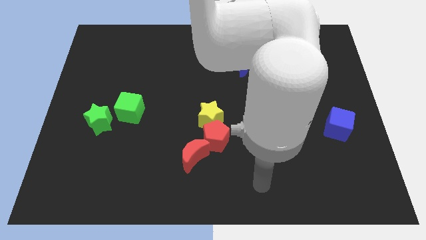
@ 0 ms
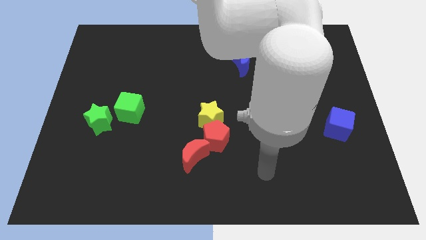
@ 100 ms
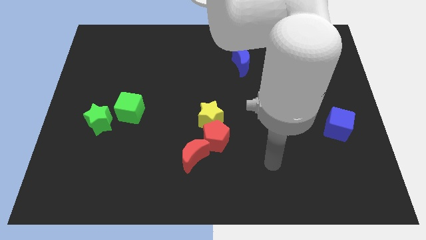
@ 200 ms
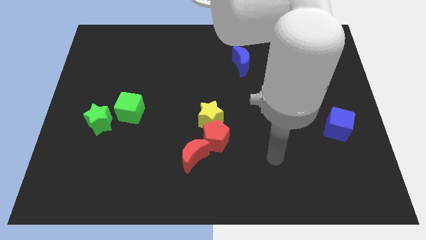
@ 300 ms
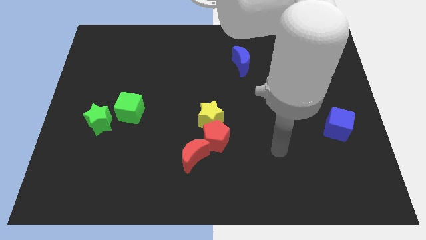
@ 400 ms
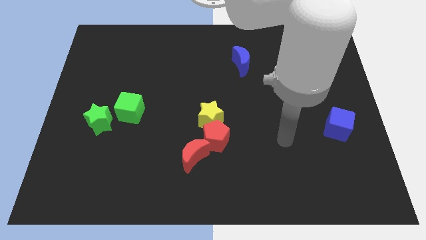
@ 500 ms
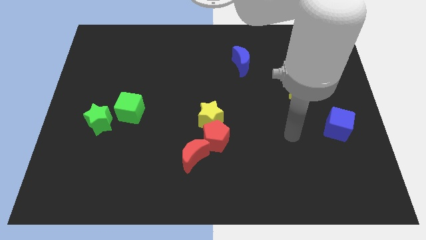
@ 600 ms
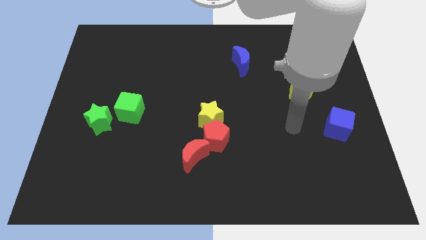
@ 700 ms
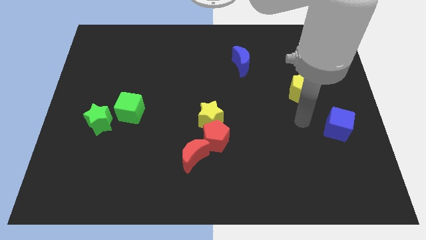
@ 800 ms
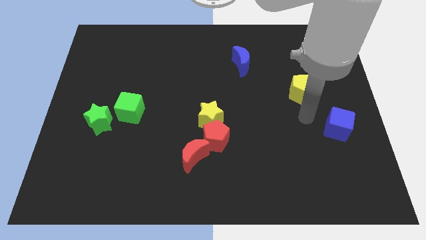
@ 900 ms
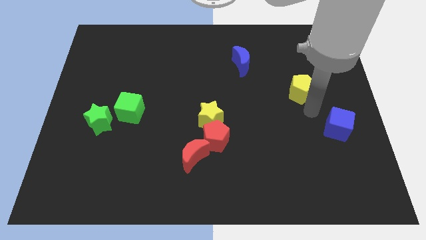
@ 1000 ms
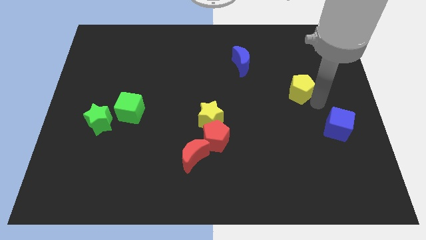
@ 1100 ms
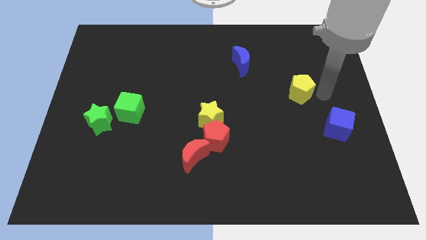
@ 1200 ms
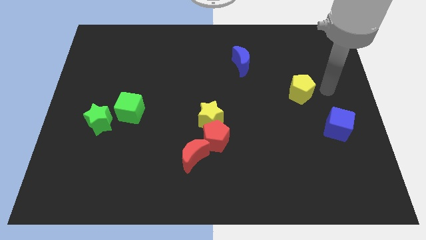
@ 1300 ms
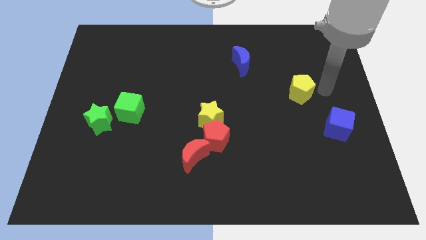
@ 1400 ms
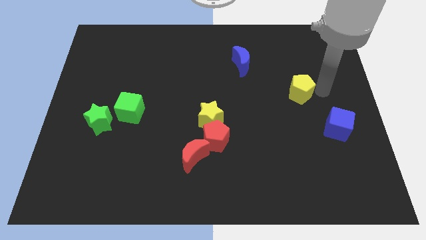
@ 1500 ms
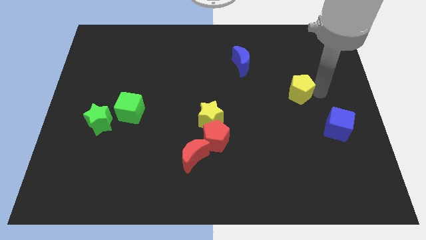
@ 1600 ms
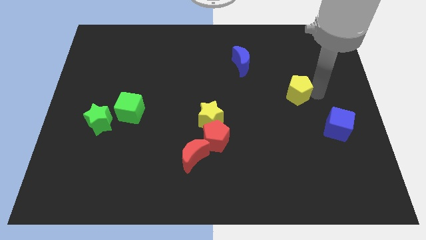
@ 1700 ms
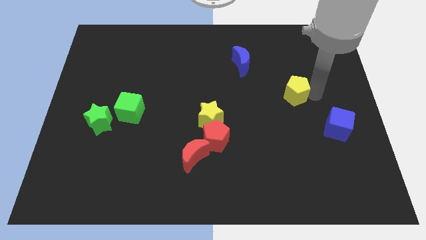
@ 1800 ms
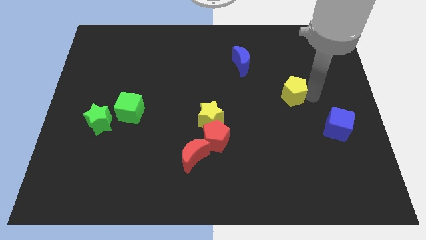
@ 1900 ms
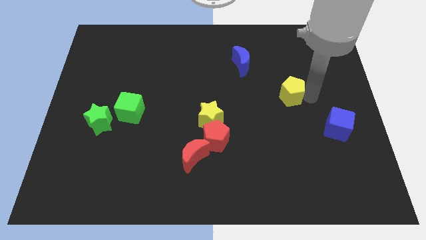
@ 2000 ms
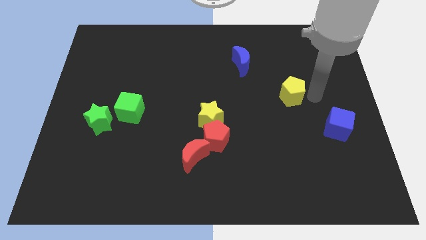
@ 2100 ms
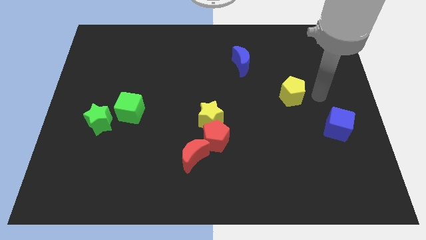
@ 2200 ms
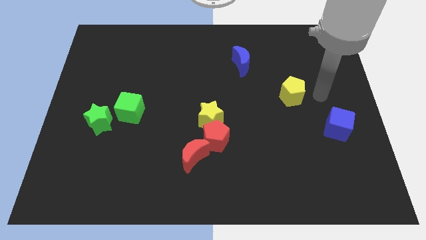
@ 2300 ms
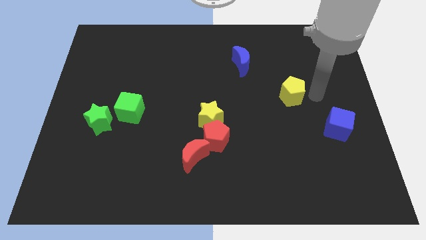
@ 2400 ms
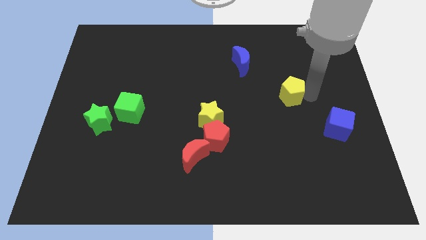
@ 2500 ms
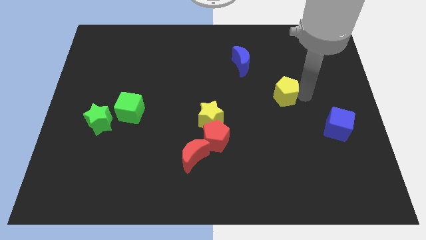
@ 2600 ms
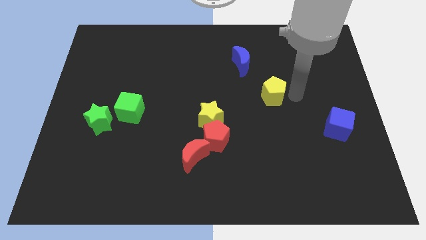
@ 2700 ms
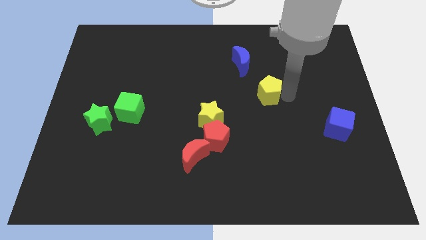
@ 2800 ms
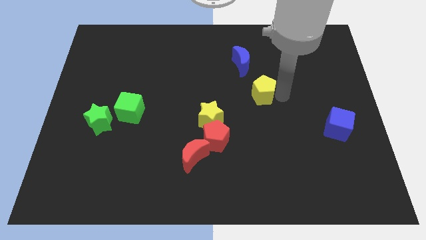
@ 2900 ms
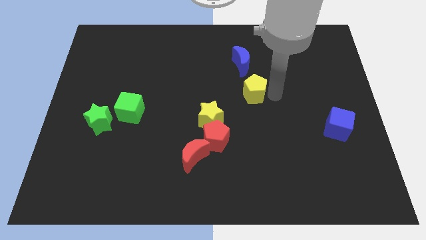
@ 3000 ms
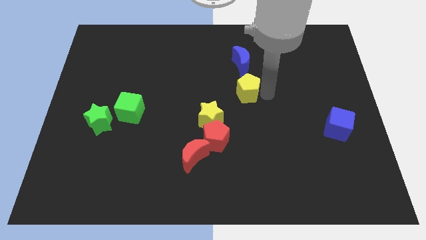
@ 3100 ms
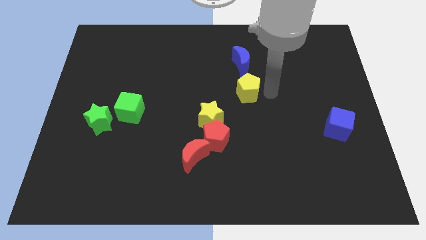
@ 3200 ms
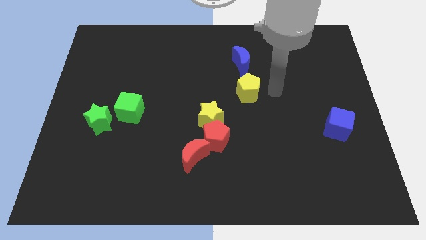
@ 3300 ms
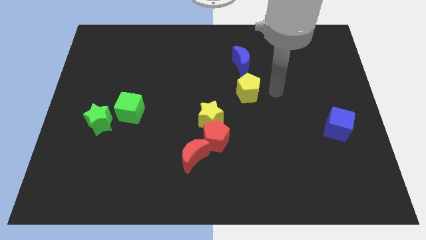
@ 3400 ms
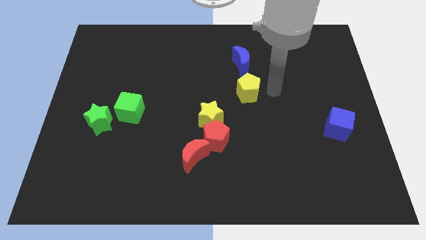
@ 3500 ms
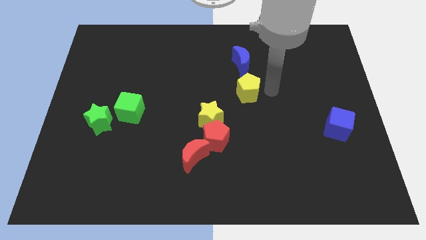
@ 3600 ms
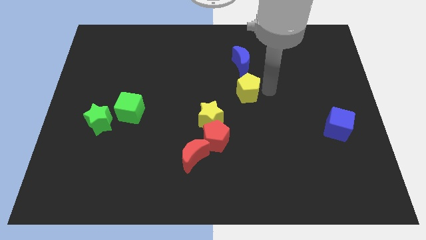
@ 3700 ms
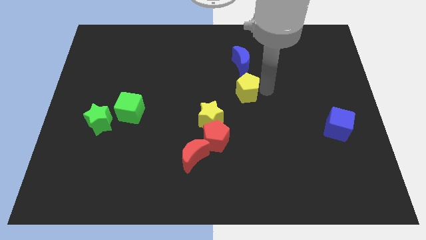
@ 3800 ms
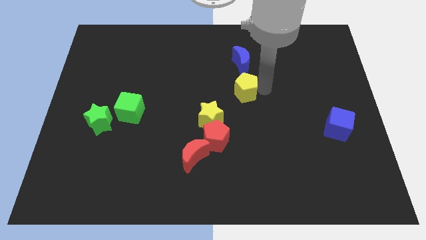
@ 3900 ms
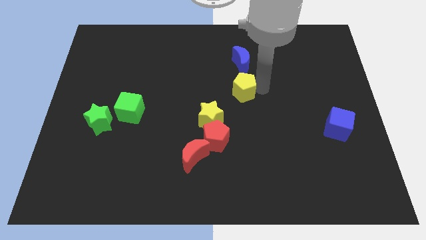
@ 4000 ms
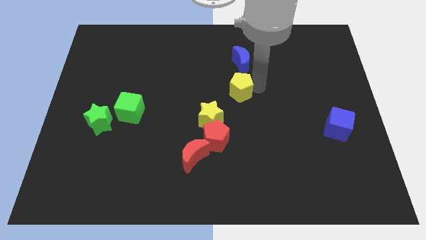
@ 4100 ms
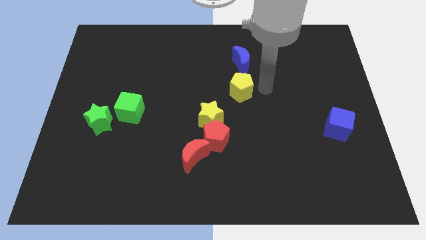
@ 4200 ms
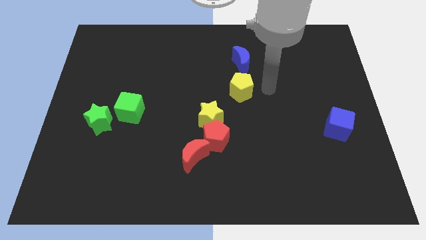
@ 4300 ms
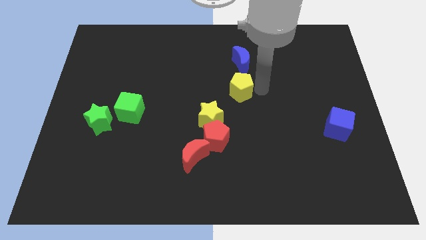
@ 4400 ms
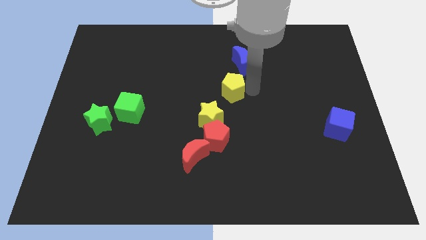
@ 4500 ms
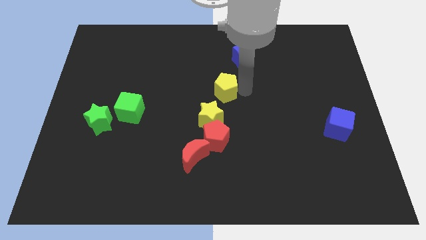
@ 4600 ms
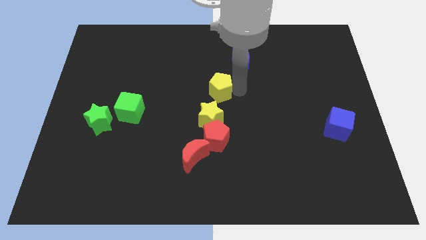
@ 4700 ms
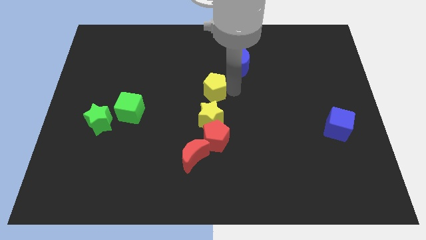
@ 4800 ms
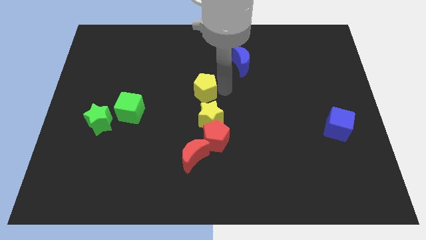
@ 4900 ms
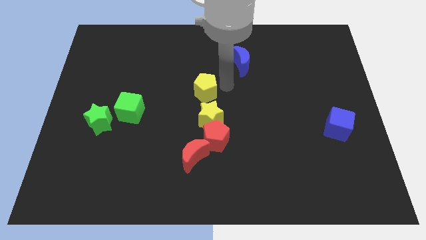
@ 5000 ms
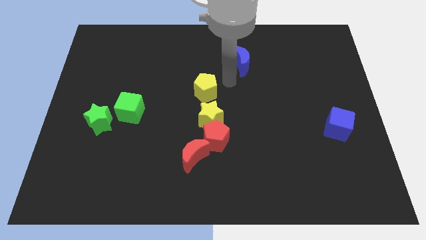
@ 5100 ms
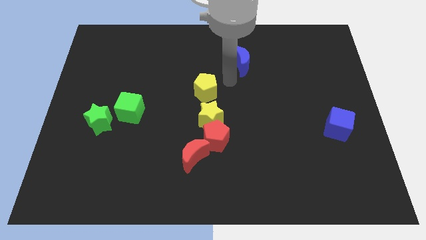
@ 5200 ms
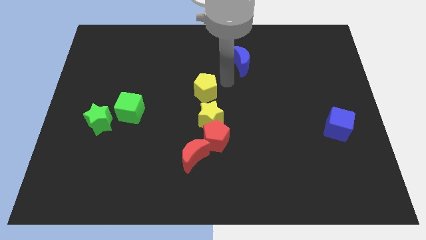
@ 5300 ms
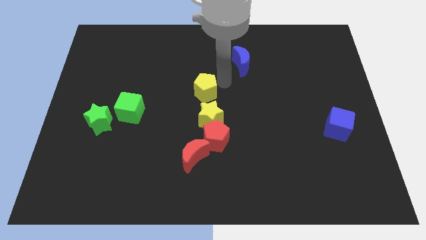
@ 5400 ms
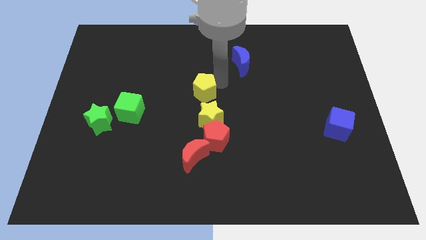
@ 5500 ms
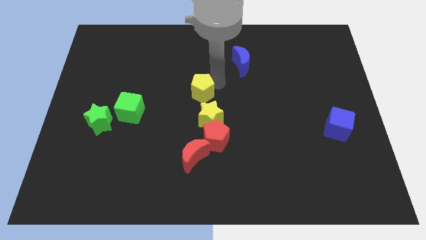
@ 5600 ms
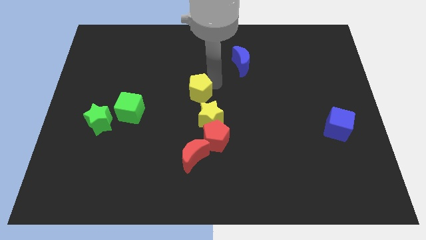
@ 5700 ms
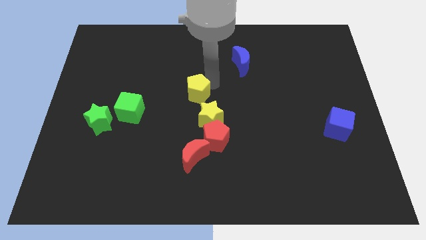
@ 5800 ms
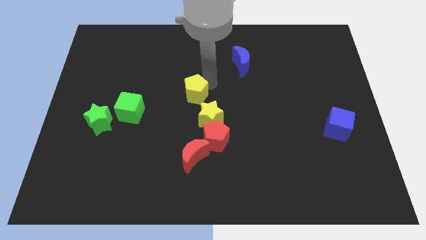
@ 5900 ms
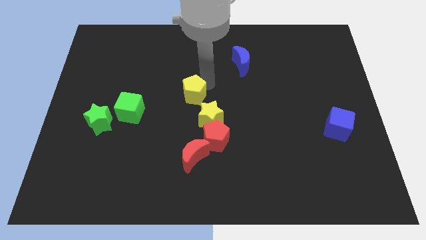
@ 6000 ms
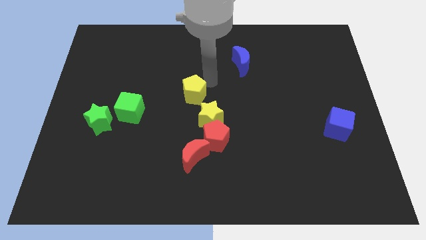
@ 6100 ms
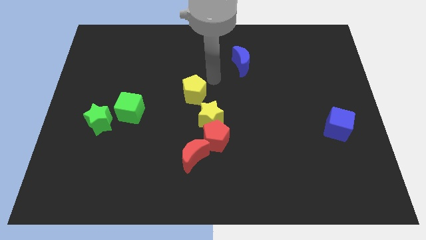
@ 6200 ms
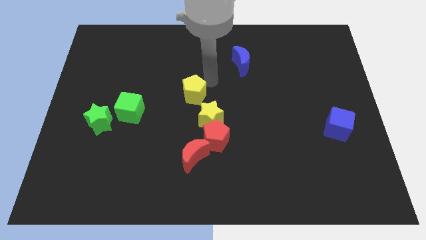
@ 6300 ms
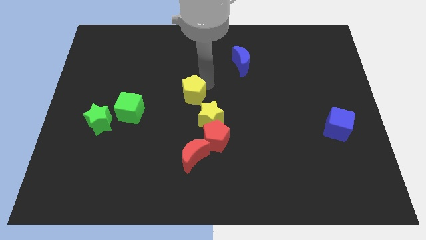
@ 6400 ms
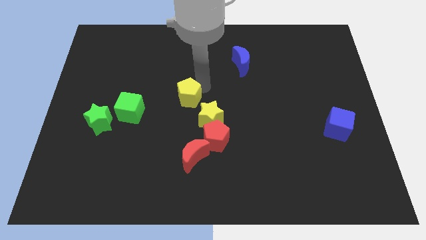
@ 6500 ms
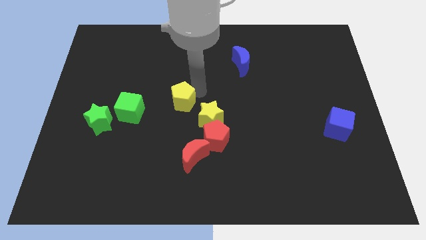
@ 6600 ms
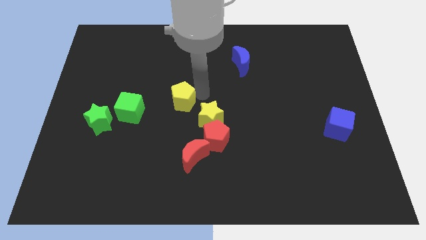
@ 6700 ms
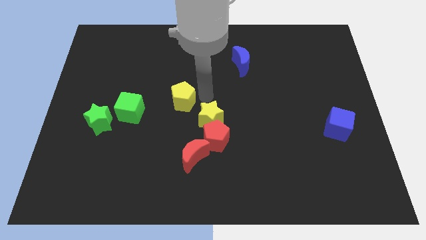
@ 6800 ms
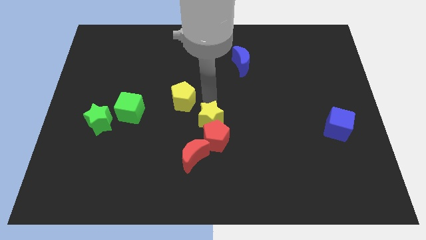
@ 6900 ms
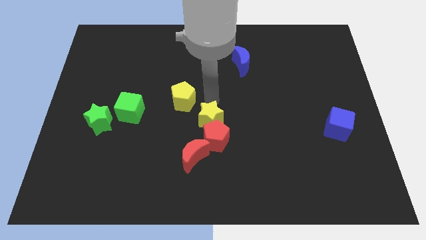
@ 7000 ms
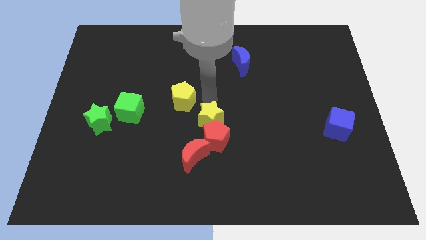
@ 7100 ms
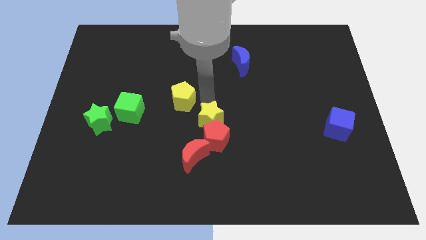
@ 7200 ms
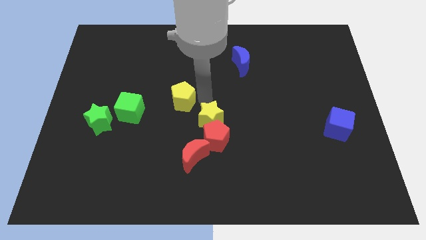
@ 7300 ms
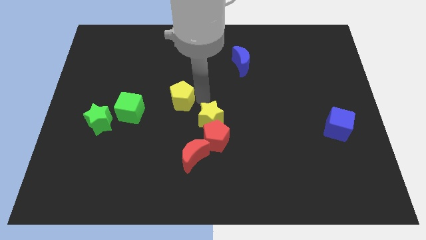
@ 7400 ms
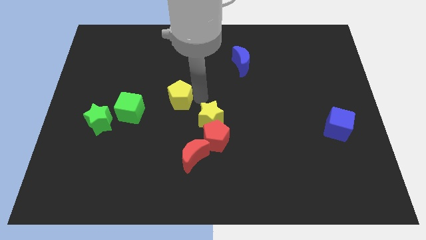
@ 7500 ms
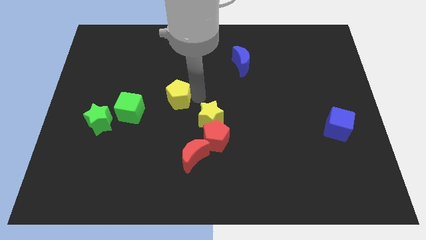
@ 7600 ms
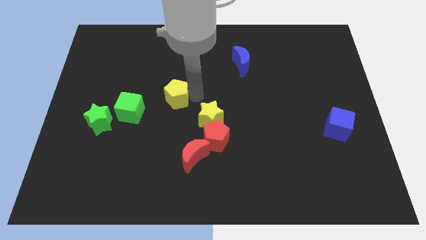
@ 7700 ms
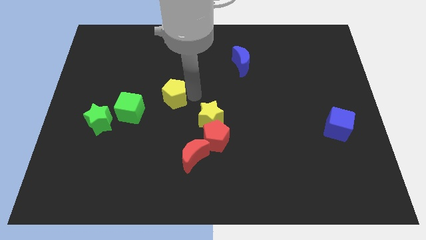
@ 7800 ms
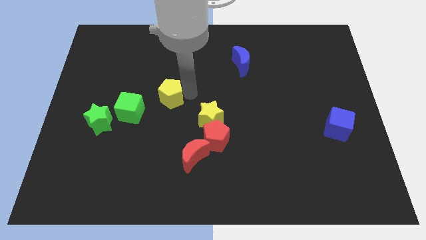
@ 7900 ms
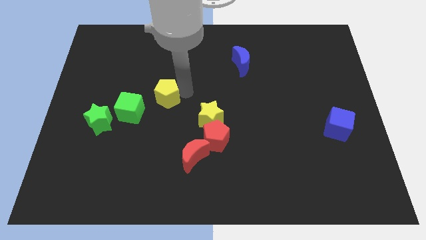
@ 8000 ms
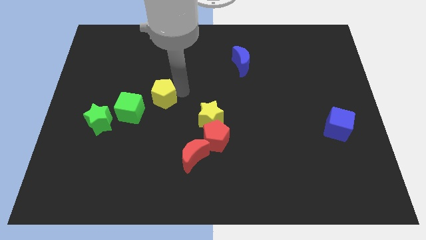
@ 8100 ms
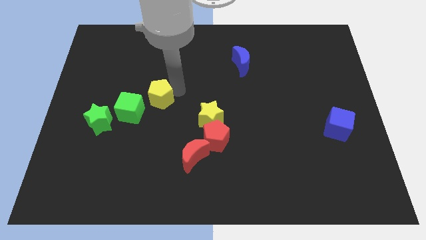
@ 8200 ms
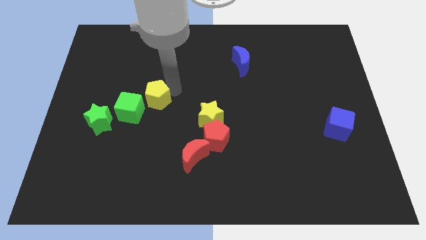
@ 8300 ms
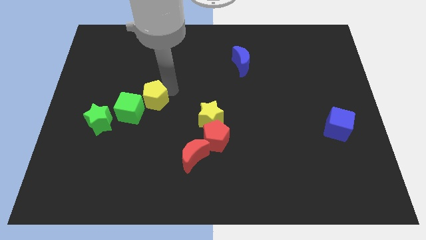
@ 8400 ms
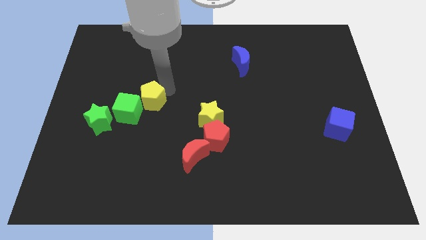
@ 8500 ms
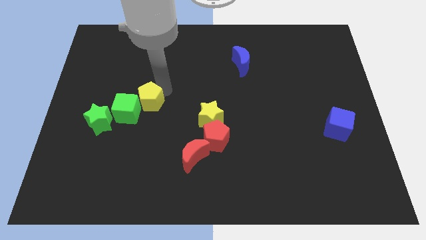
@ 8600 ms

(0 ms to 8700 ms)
put the yellow pentagon to the green cube
